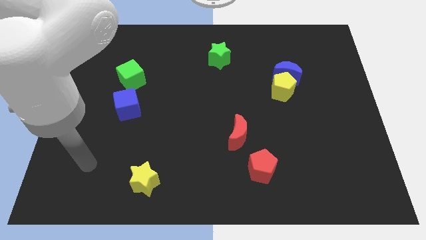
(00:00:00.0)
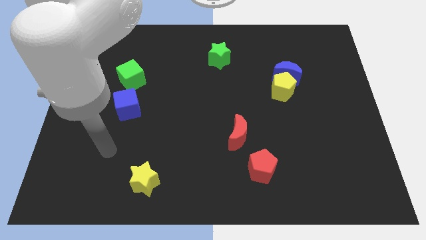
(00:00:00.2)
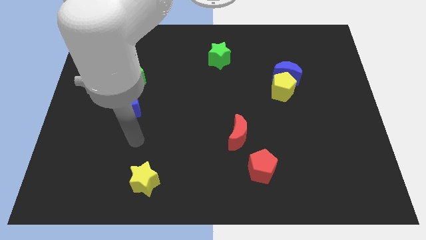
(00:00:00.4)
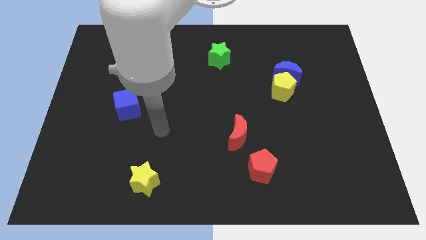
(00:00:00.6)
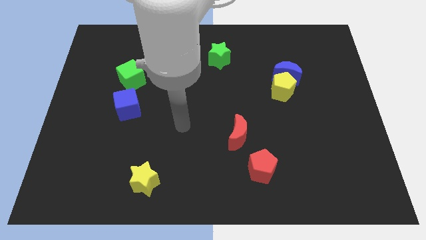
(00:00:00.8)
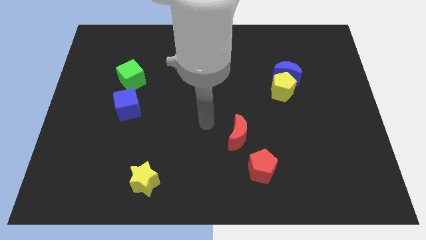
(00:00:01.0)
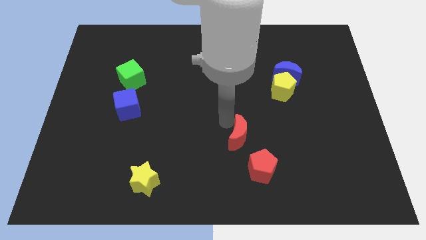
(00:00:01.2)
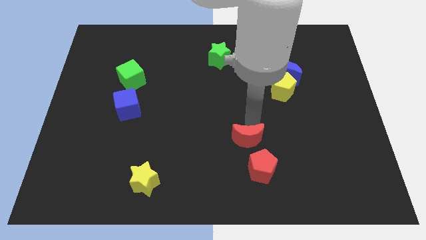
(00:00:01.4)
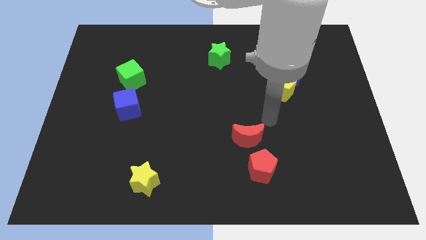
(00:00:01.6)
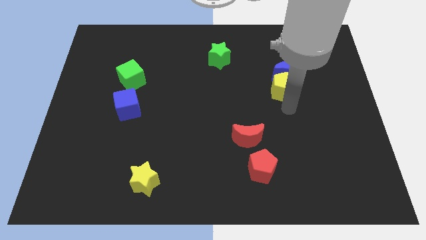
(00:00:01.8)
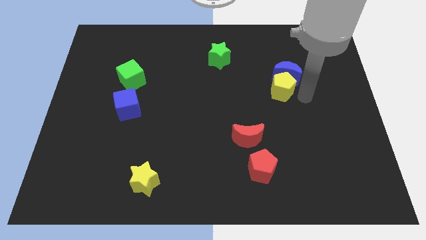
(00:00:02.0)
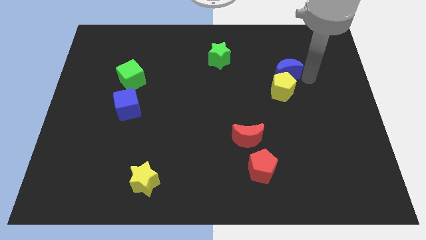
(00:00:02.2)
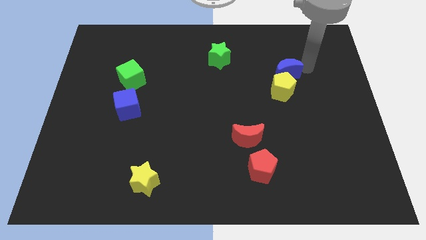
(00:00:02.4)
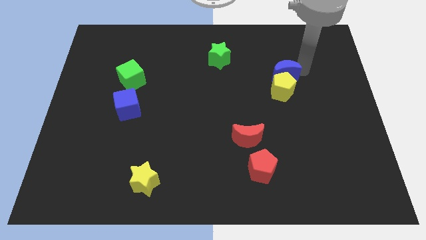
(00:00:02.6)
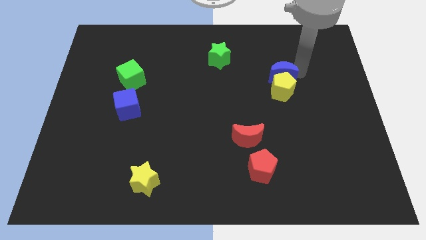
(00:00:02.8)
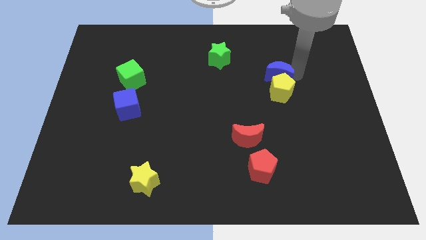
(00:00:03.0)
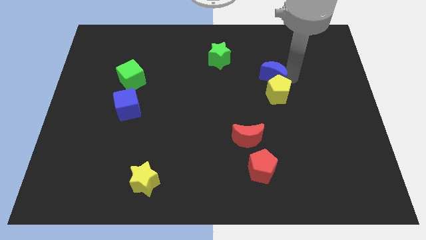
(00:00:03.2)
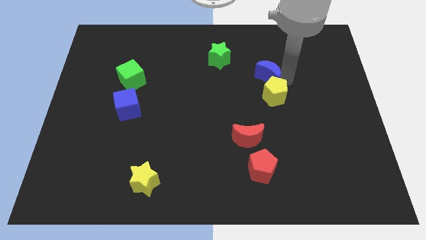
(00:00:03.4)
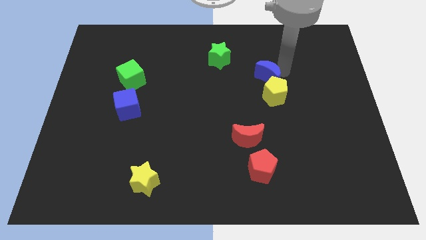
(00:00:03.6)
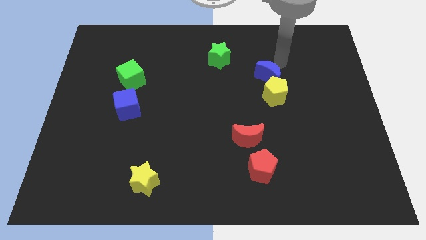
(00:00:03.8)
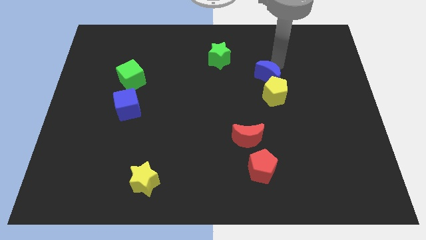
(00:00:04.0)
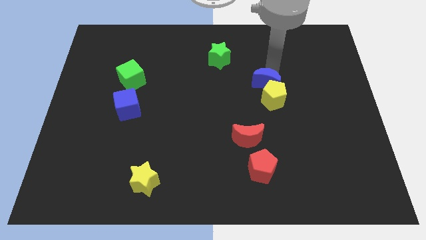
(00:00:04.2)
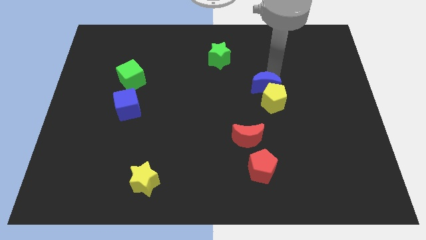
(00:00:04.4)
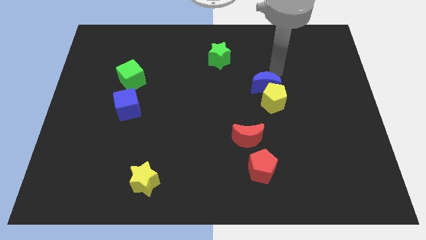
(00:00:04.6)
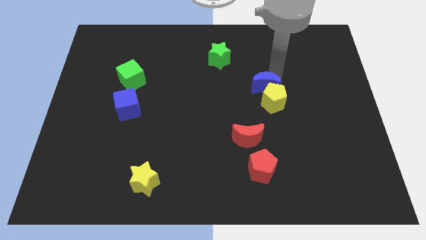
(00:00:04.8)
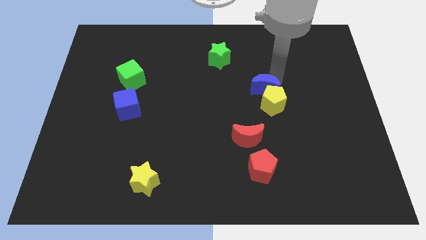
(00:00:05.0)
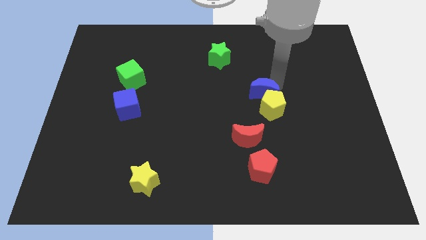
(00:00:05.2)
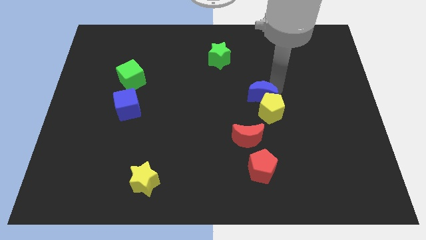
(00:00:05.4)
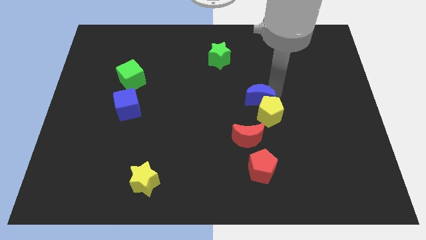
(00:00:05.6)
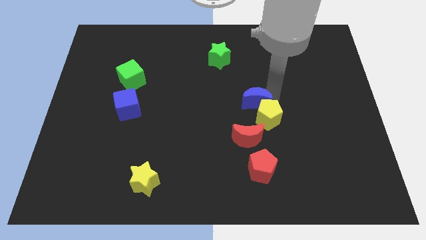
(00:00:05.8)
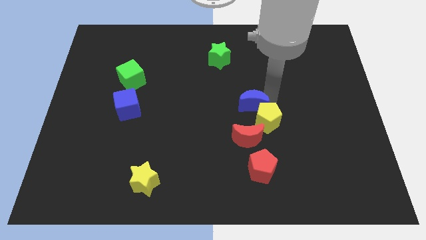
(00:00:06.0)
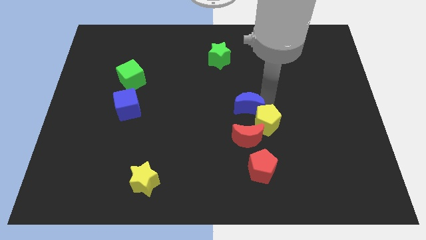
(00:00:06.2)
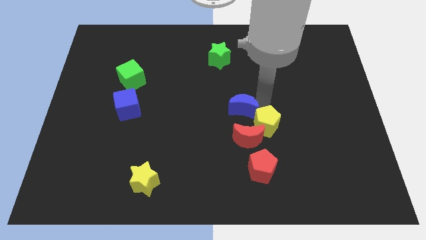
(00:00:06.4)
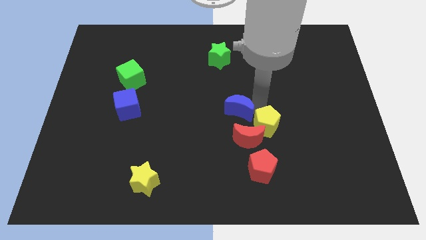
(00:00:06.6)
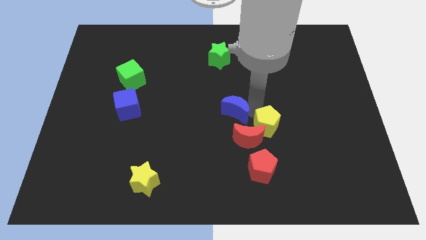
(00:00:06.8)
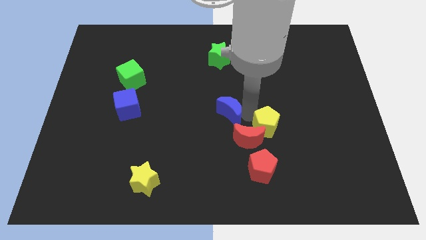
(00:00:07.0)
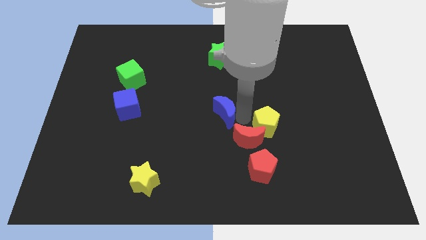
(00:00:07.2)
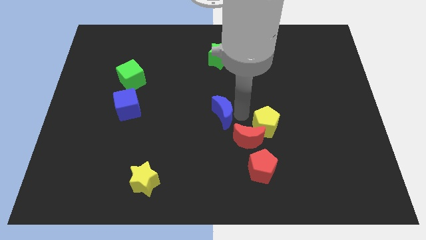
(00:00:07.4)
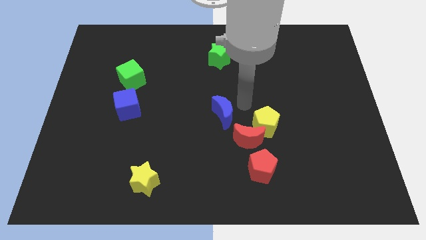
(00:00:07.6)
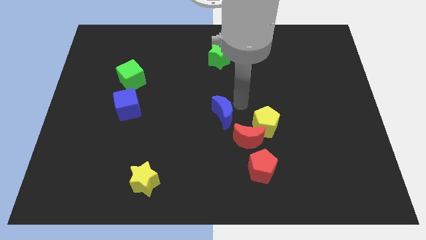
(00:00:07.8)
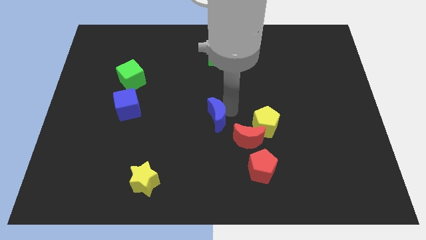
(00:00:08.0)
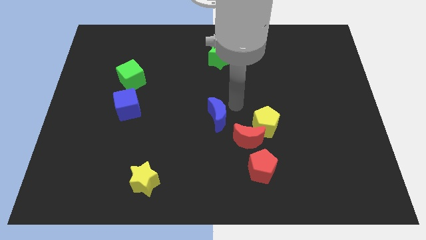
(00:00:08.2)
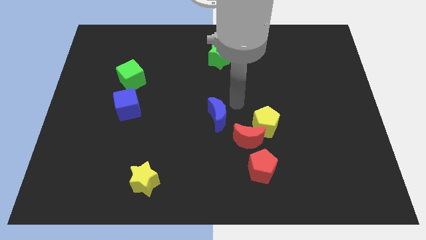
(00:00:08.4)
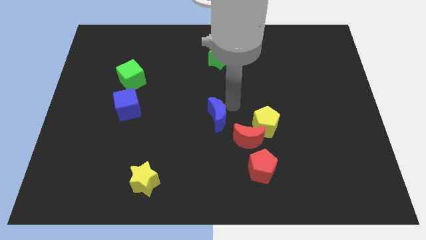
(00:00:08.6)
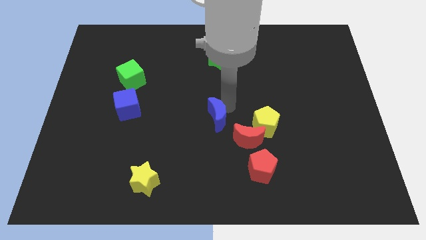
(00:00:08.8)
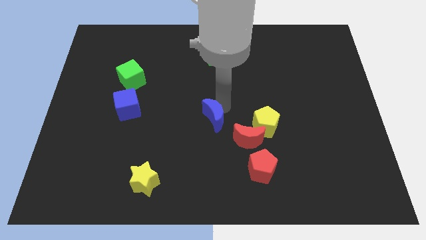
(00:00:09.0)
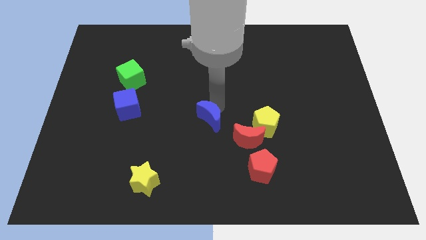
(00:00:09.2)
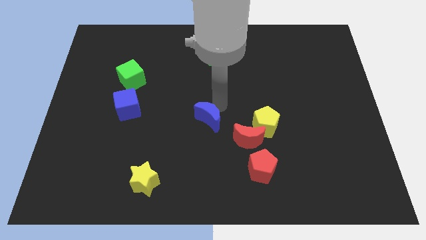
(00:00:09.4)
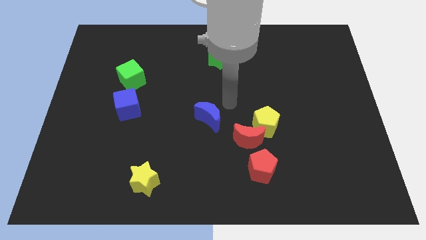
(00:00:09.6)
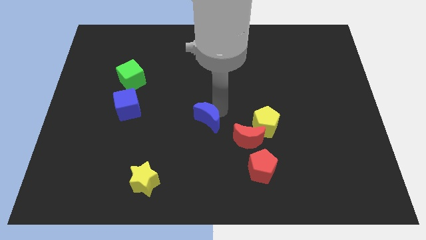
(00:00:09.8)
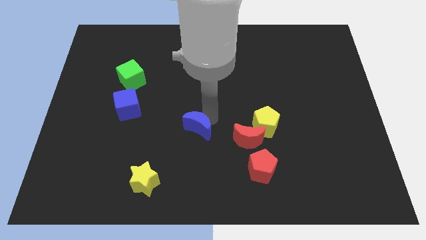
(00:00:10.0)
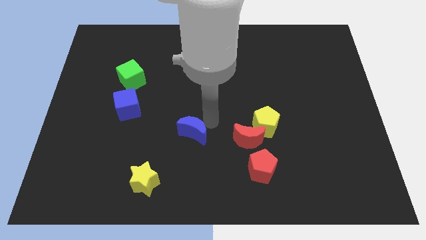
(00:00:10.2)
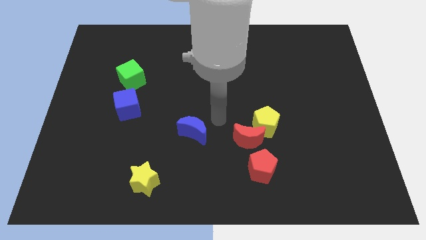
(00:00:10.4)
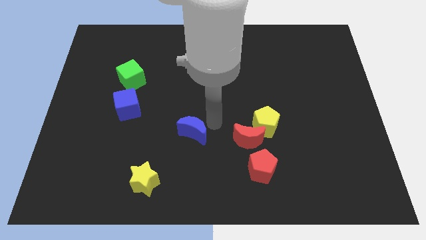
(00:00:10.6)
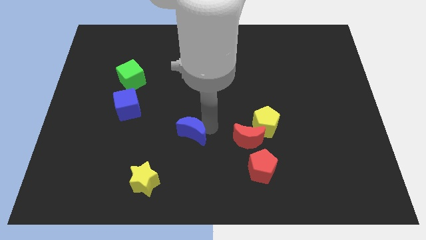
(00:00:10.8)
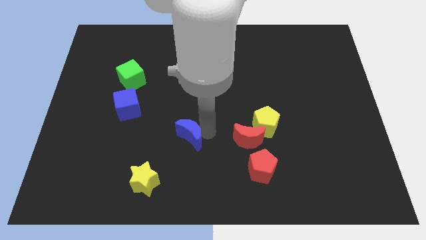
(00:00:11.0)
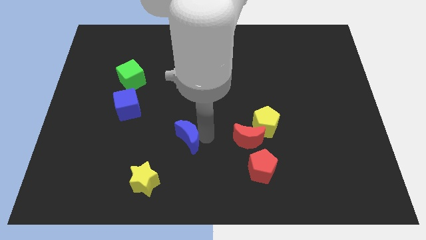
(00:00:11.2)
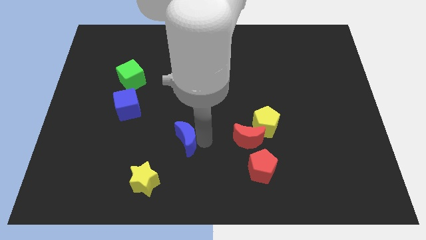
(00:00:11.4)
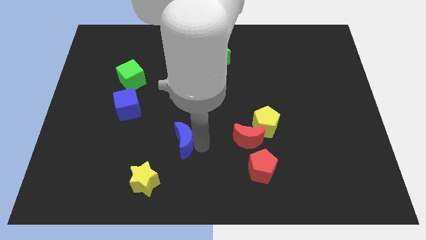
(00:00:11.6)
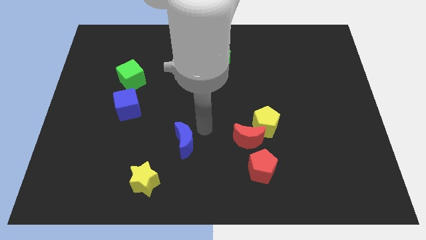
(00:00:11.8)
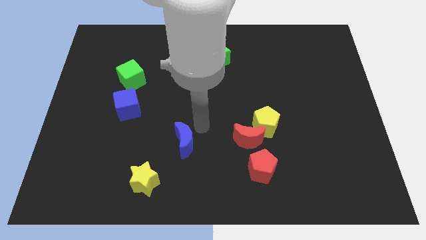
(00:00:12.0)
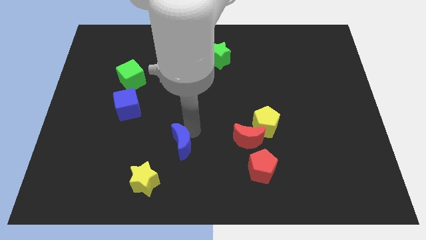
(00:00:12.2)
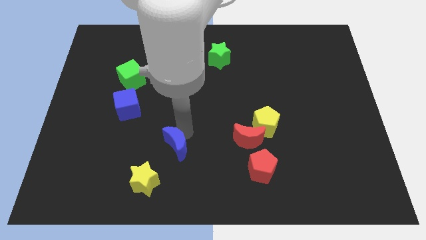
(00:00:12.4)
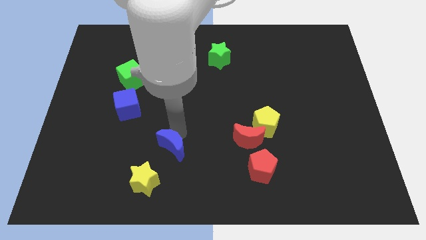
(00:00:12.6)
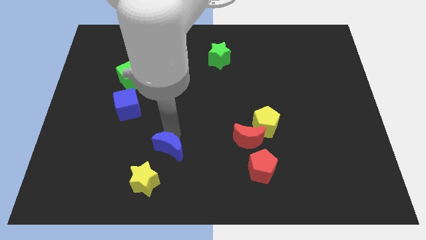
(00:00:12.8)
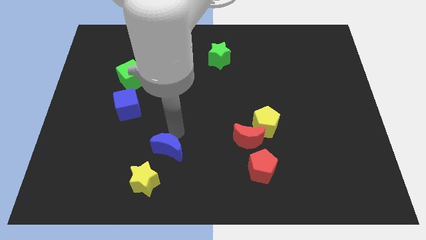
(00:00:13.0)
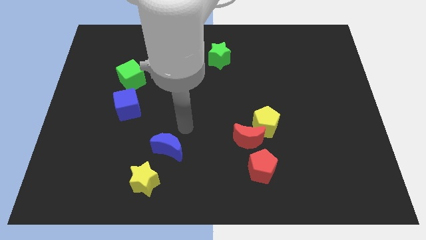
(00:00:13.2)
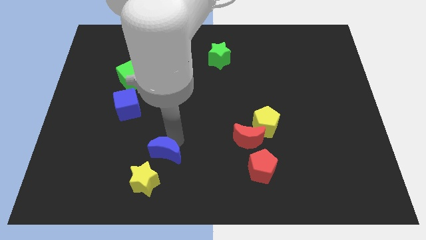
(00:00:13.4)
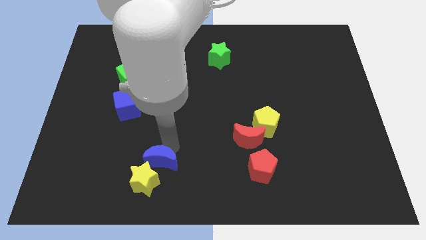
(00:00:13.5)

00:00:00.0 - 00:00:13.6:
move the blue moon next to the yellow star
